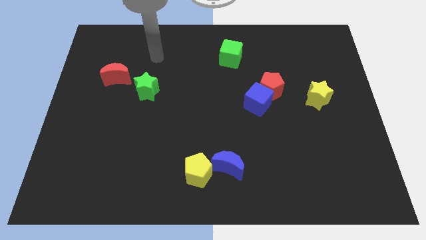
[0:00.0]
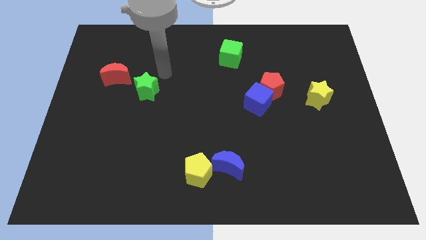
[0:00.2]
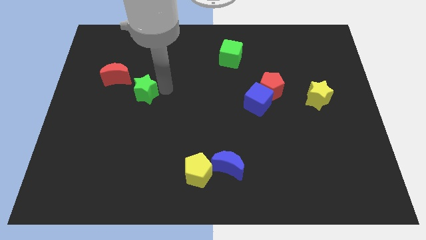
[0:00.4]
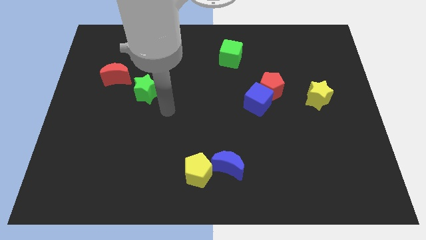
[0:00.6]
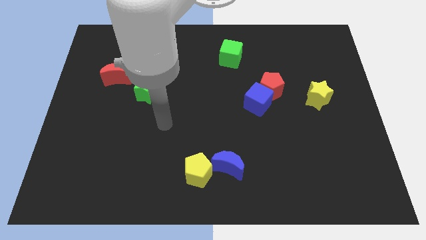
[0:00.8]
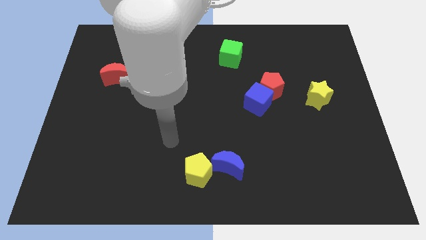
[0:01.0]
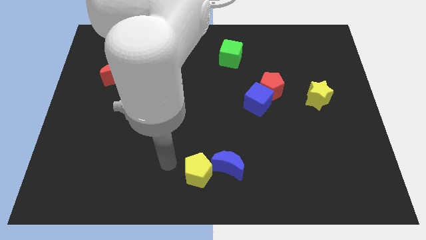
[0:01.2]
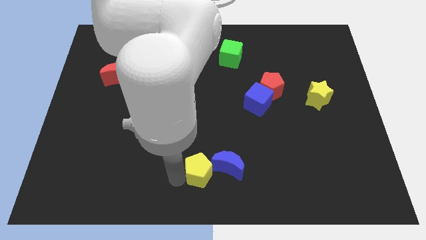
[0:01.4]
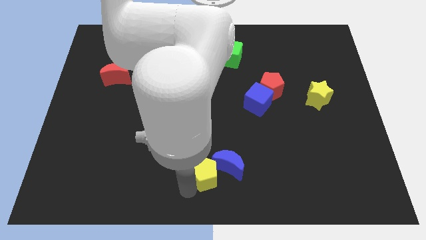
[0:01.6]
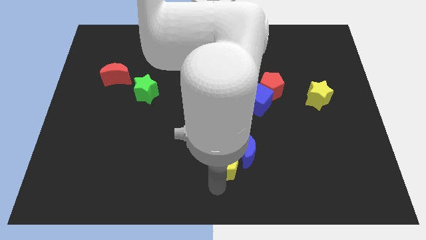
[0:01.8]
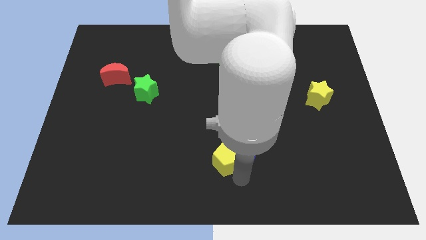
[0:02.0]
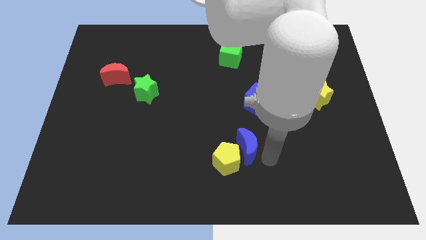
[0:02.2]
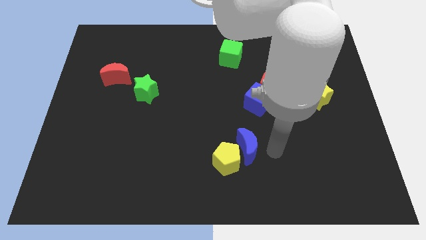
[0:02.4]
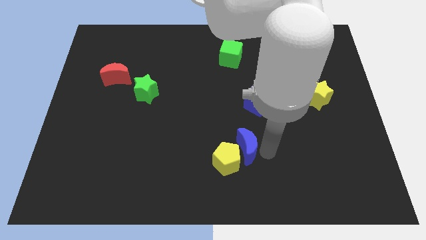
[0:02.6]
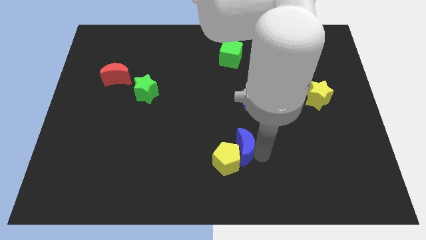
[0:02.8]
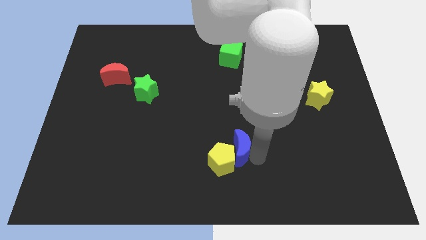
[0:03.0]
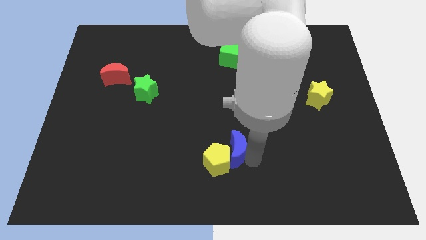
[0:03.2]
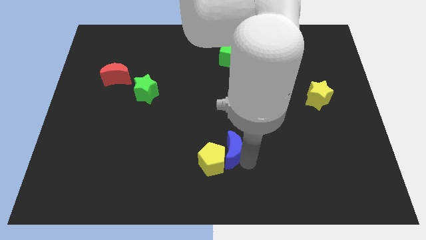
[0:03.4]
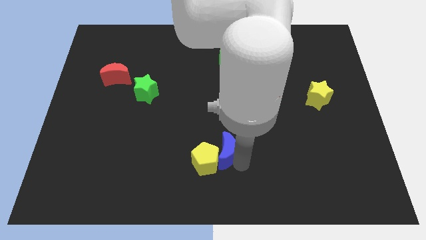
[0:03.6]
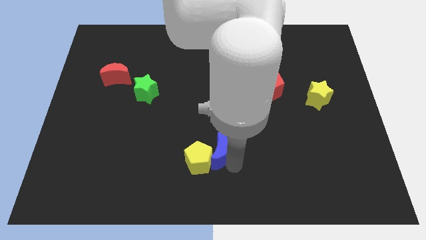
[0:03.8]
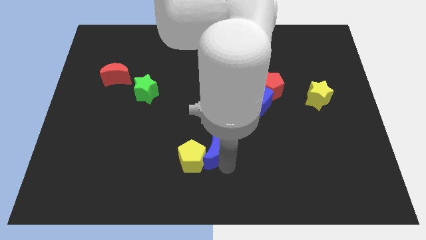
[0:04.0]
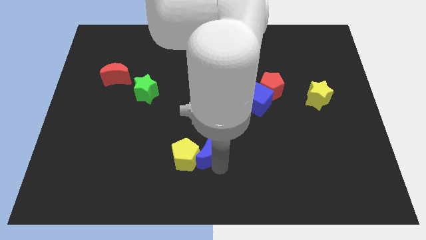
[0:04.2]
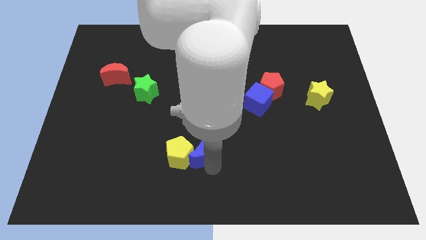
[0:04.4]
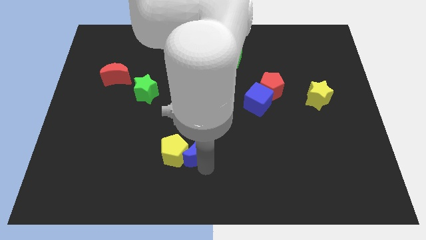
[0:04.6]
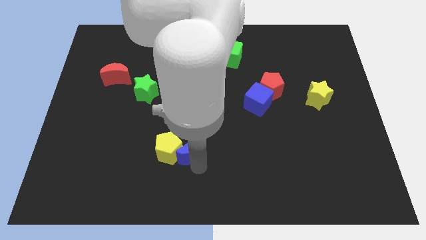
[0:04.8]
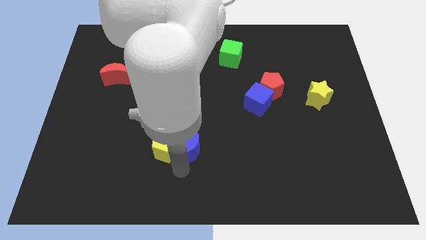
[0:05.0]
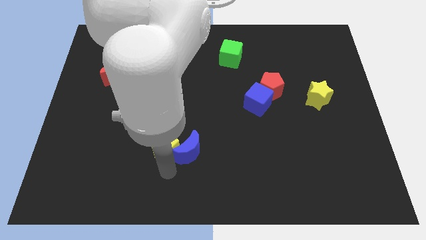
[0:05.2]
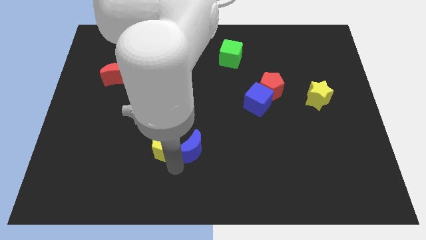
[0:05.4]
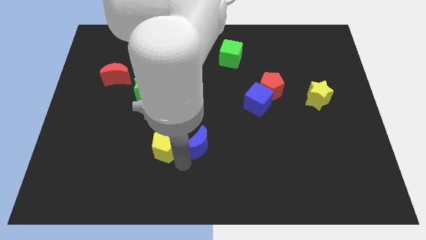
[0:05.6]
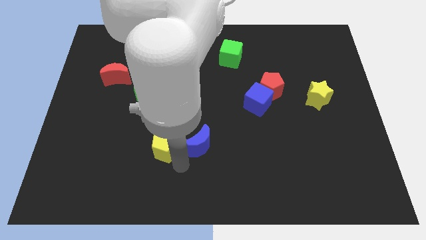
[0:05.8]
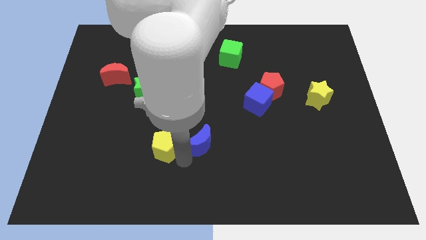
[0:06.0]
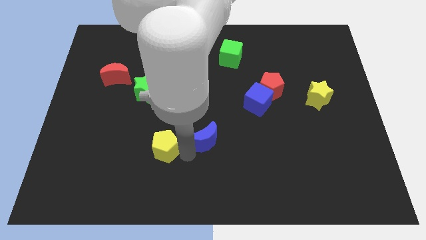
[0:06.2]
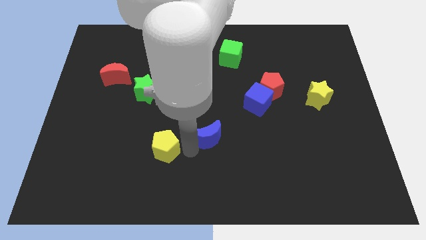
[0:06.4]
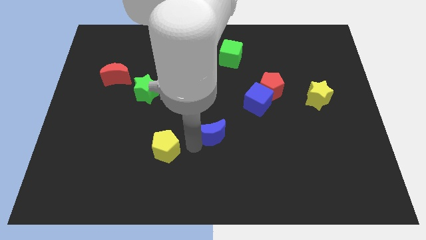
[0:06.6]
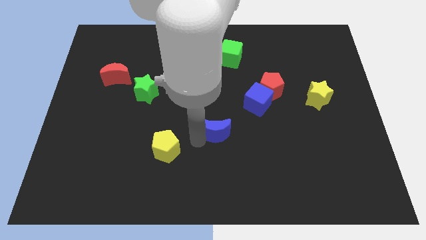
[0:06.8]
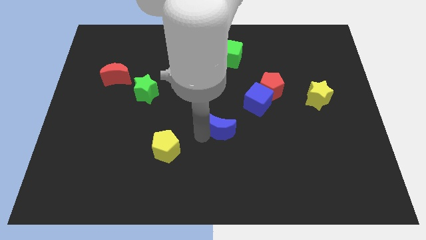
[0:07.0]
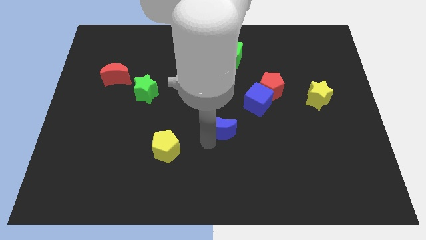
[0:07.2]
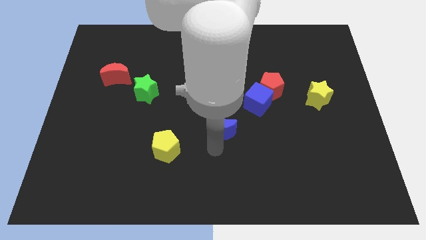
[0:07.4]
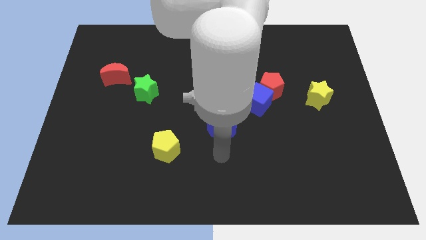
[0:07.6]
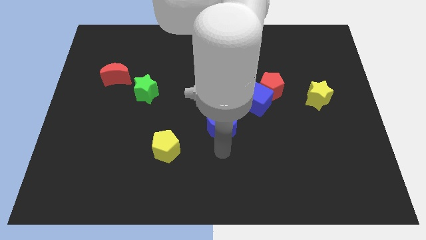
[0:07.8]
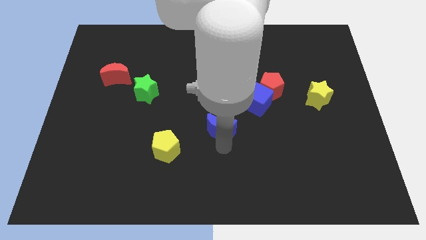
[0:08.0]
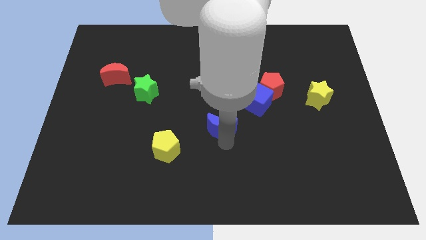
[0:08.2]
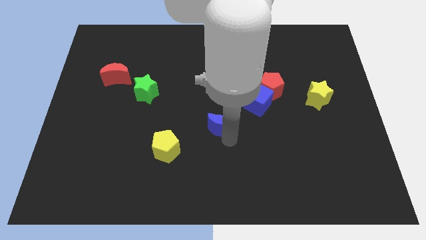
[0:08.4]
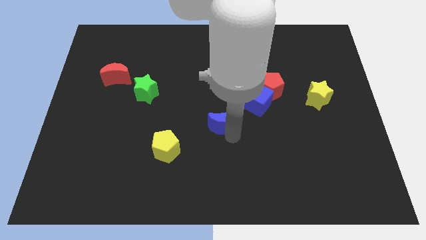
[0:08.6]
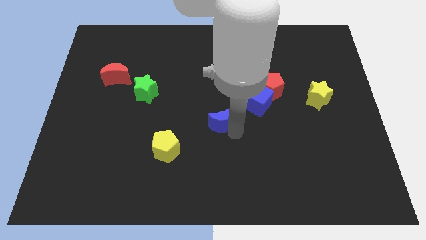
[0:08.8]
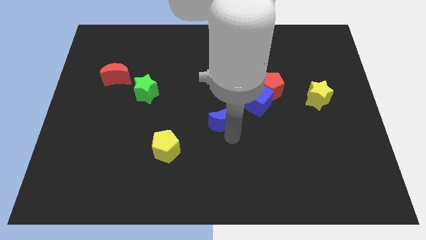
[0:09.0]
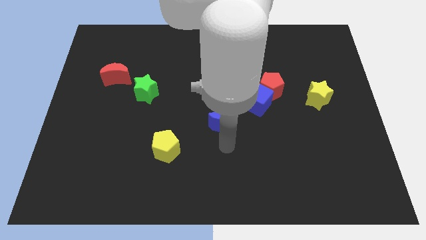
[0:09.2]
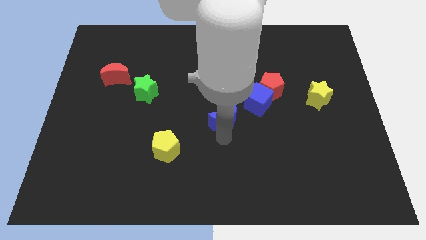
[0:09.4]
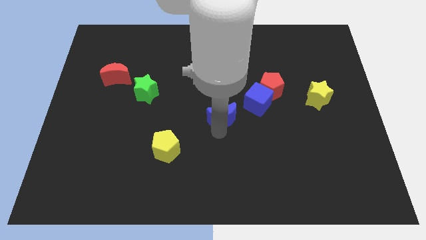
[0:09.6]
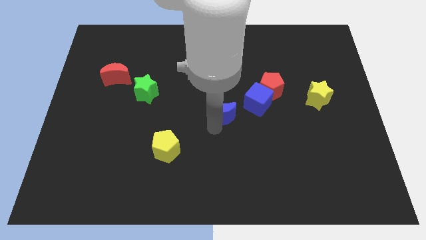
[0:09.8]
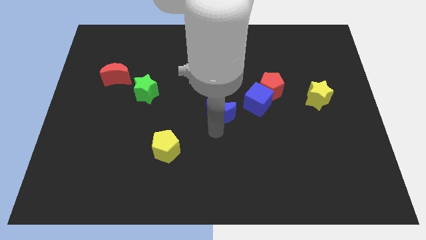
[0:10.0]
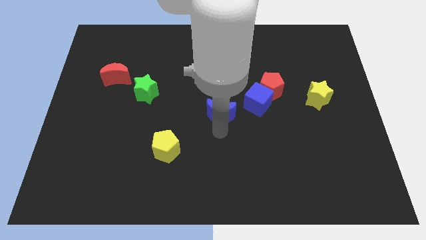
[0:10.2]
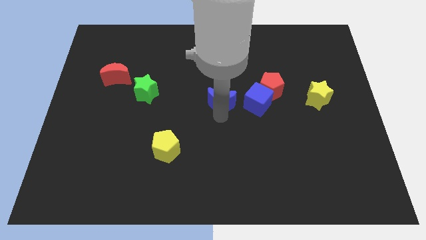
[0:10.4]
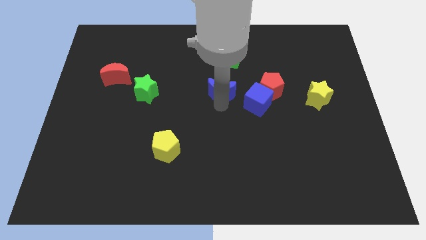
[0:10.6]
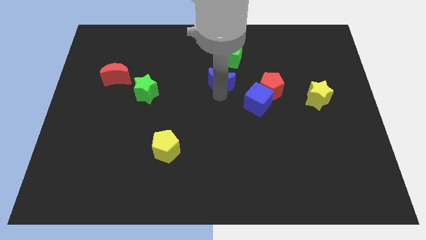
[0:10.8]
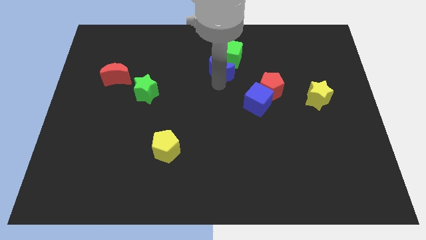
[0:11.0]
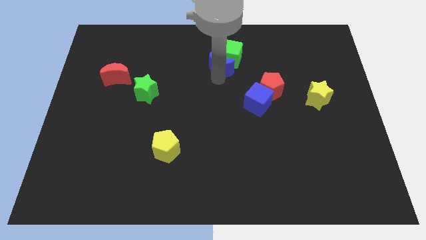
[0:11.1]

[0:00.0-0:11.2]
slide the blue moon towards the green cube
